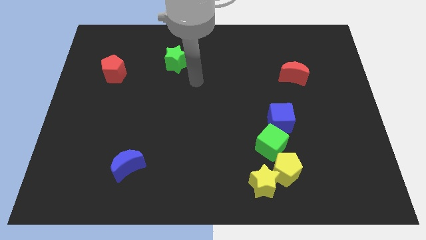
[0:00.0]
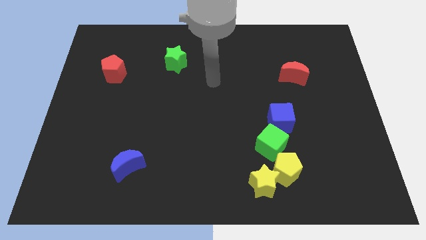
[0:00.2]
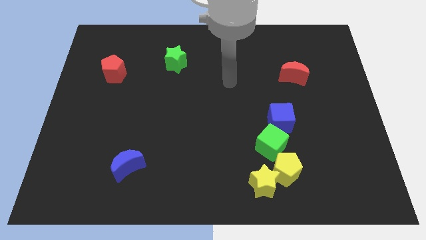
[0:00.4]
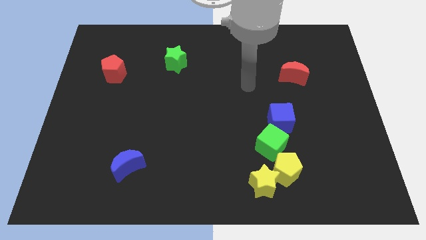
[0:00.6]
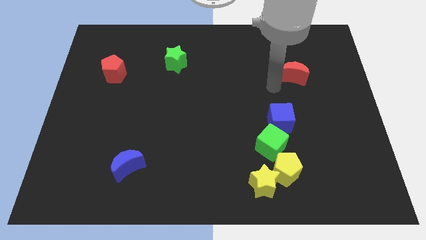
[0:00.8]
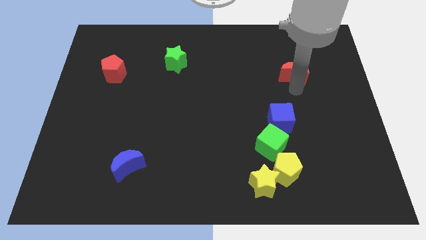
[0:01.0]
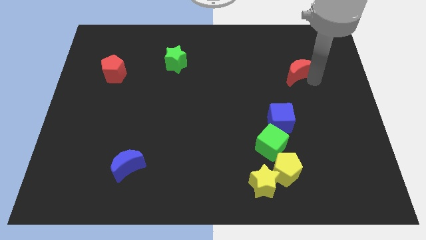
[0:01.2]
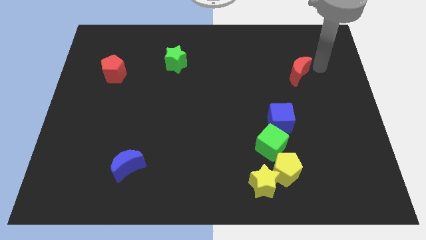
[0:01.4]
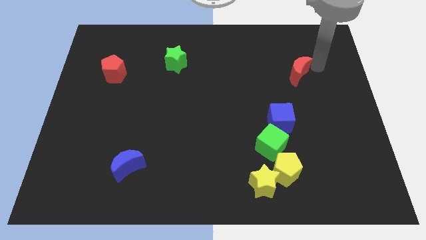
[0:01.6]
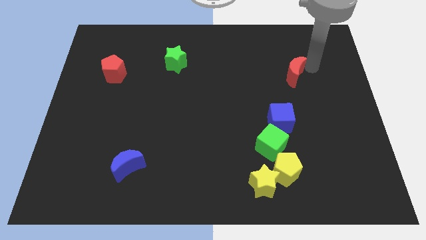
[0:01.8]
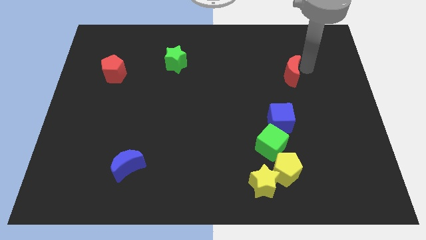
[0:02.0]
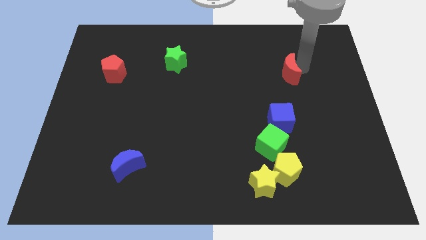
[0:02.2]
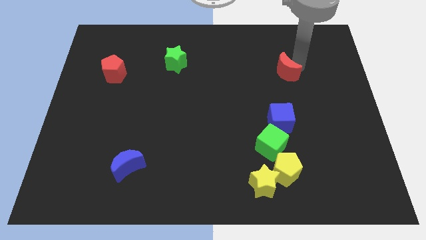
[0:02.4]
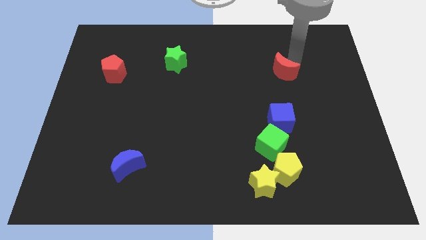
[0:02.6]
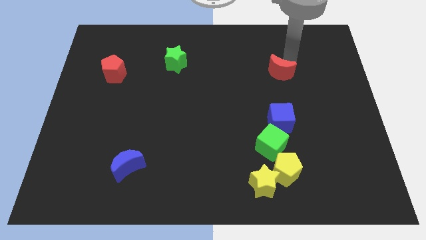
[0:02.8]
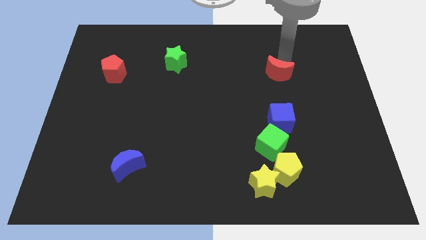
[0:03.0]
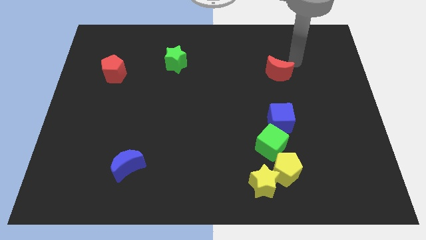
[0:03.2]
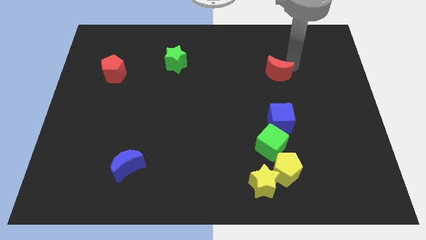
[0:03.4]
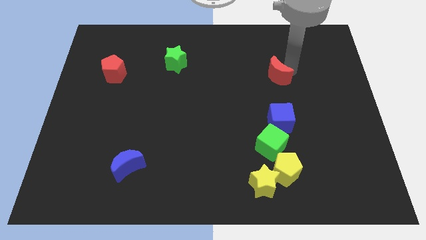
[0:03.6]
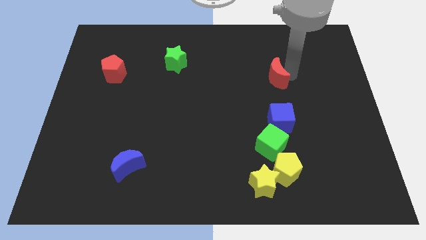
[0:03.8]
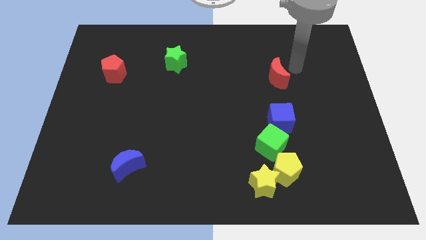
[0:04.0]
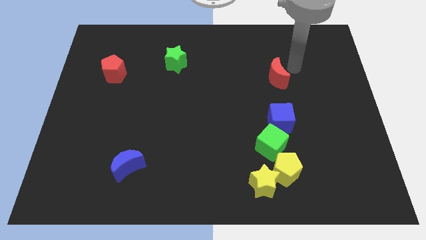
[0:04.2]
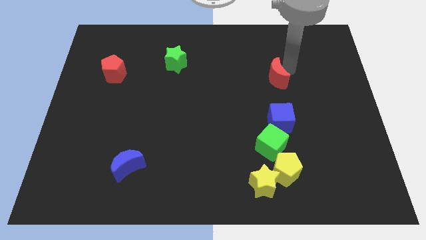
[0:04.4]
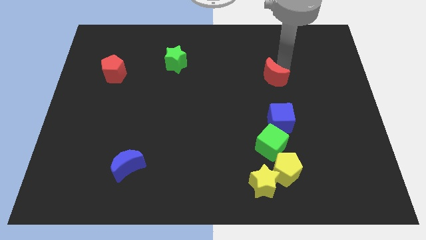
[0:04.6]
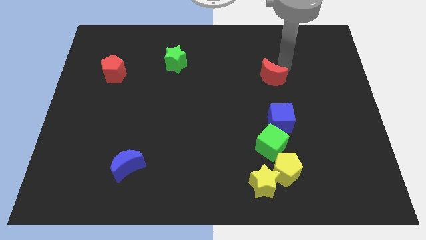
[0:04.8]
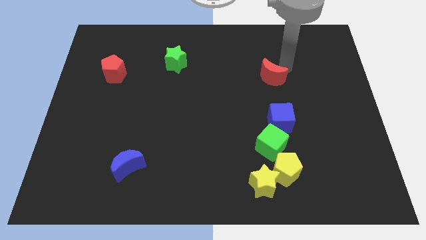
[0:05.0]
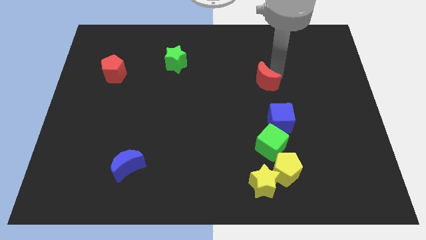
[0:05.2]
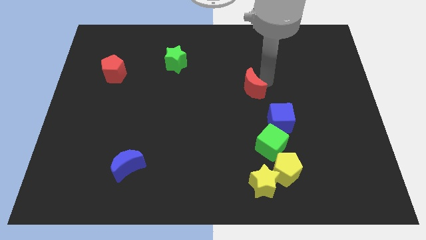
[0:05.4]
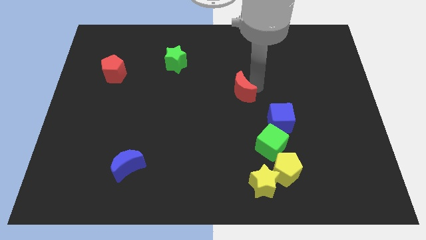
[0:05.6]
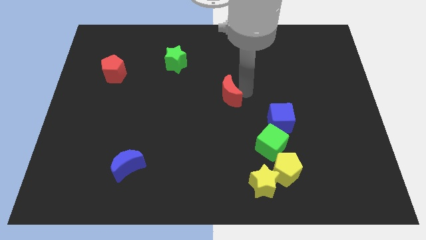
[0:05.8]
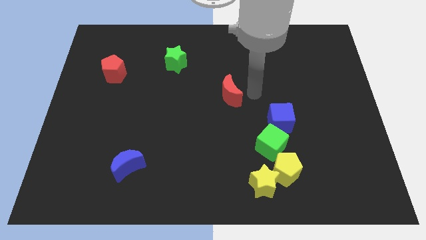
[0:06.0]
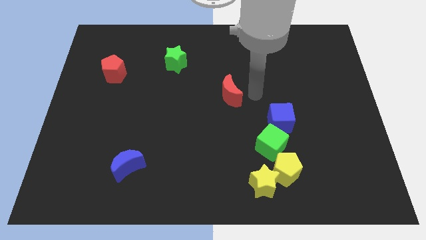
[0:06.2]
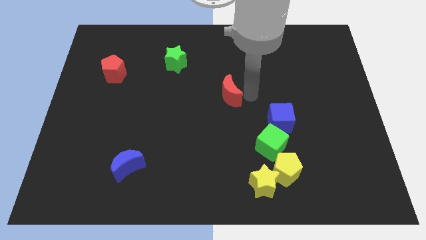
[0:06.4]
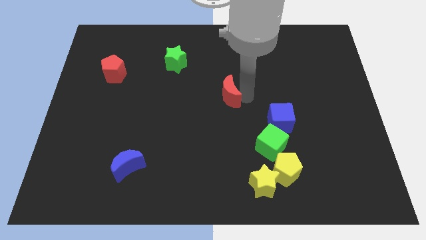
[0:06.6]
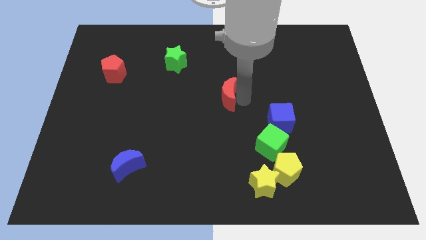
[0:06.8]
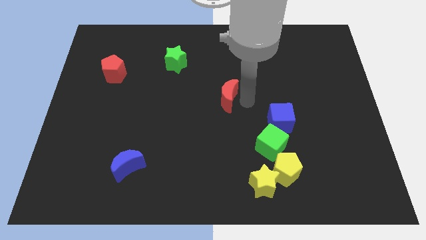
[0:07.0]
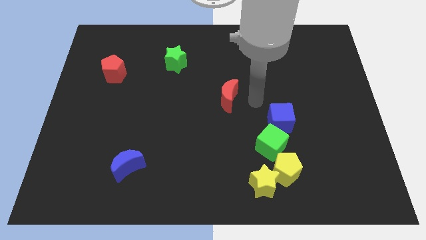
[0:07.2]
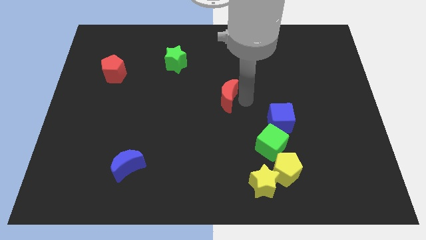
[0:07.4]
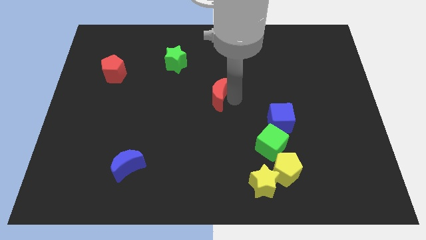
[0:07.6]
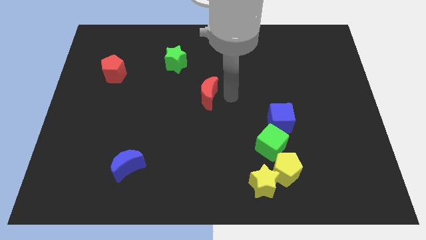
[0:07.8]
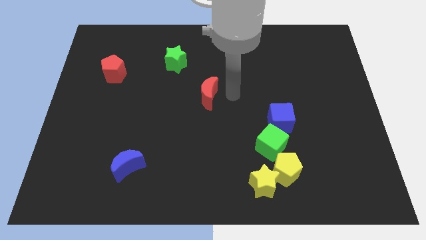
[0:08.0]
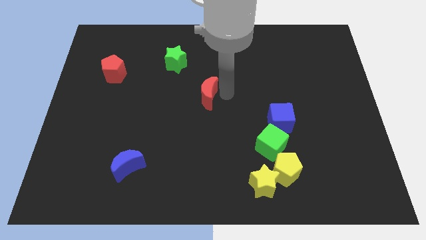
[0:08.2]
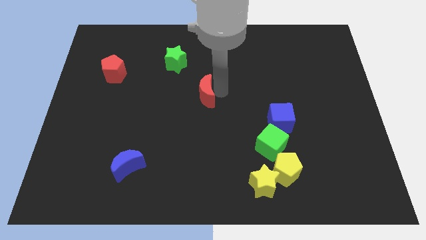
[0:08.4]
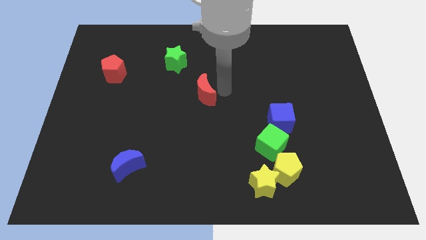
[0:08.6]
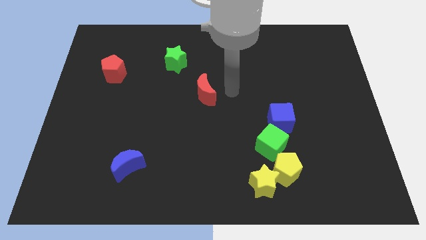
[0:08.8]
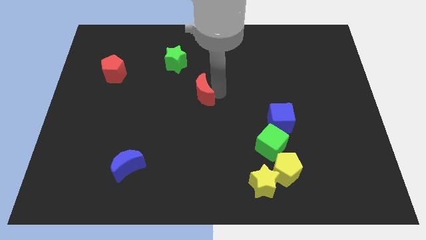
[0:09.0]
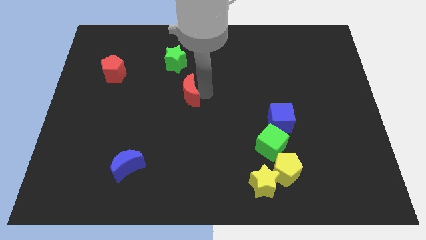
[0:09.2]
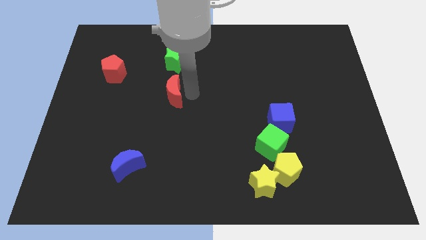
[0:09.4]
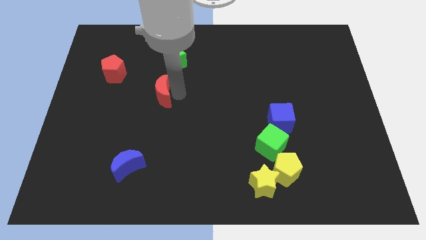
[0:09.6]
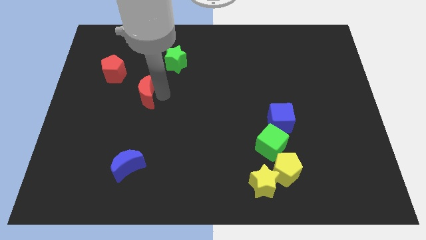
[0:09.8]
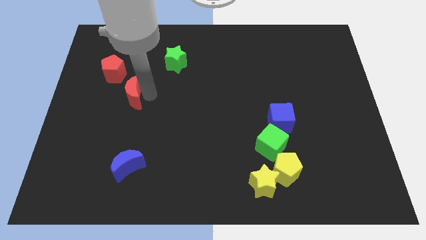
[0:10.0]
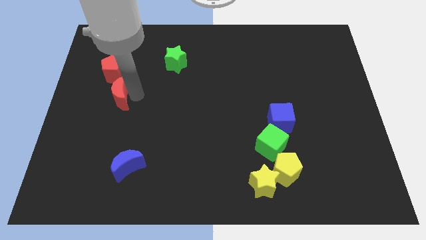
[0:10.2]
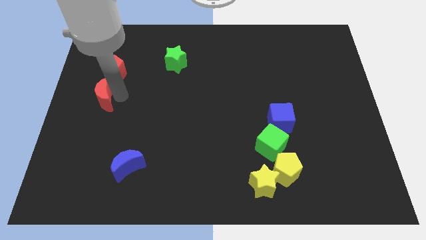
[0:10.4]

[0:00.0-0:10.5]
slide the red moon to the left side
